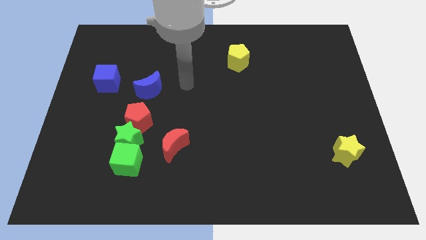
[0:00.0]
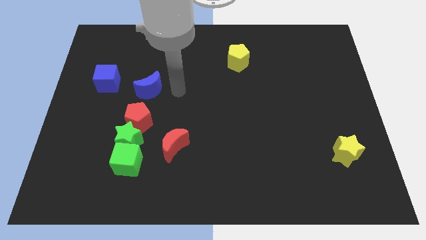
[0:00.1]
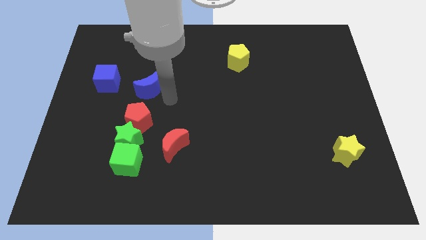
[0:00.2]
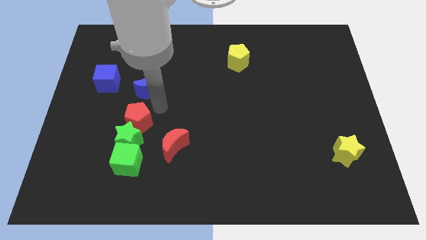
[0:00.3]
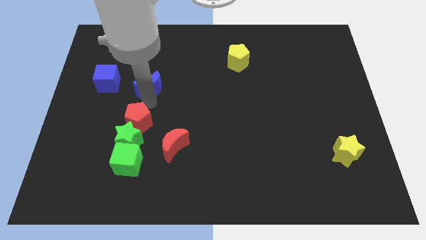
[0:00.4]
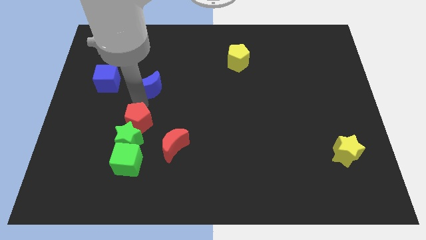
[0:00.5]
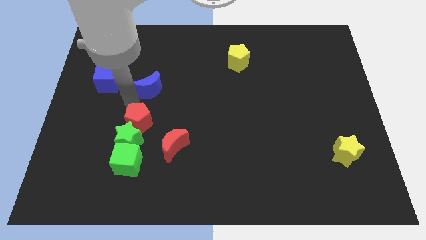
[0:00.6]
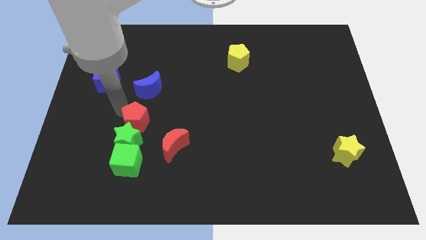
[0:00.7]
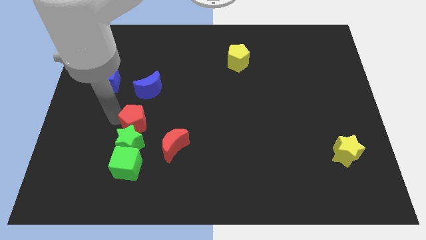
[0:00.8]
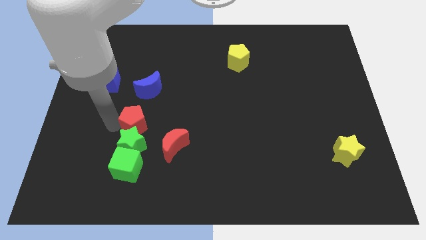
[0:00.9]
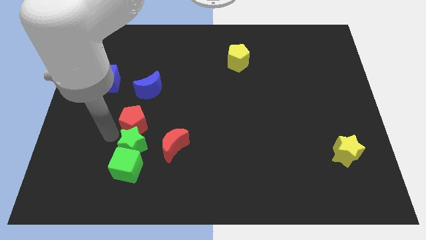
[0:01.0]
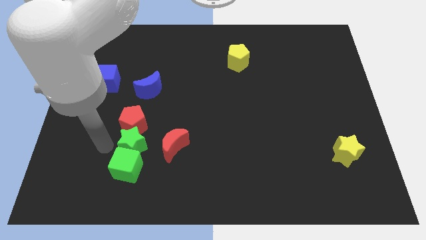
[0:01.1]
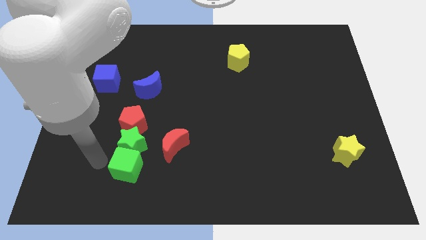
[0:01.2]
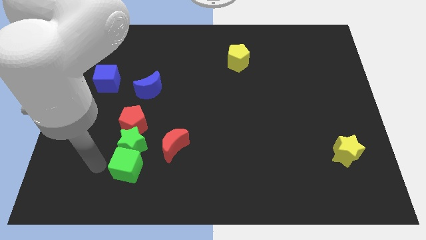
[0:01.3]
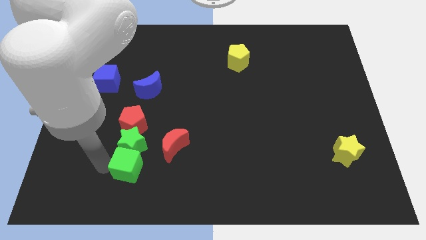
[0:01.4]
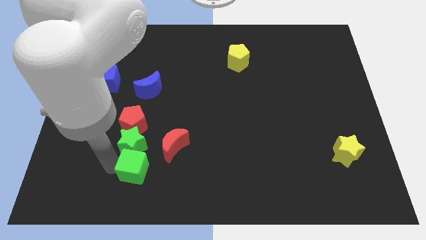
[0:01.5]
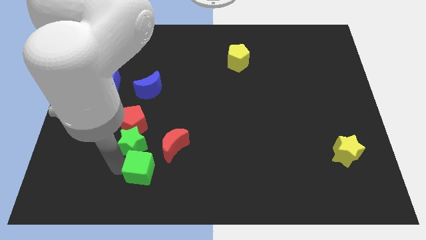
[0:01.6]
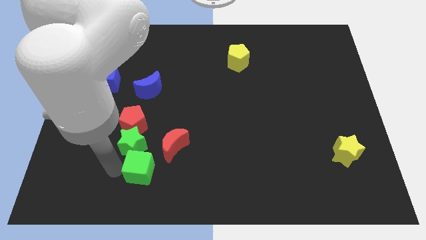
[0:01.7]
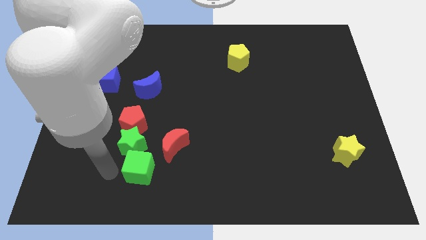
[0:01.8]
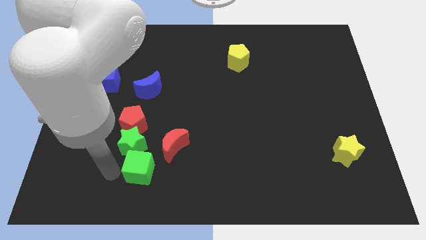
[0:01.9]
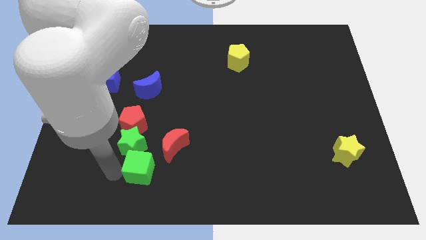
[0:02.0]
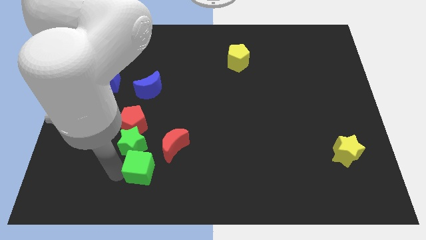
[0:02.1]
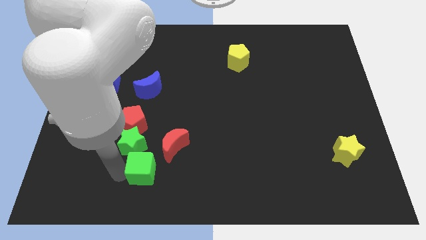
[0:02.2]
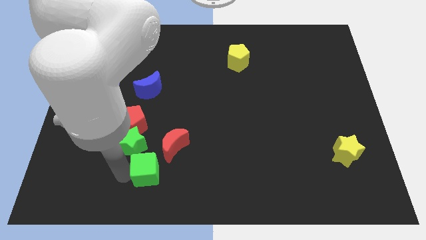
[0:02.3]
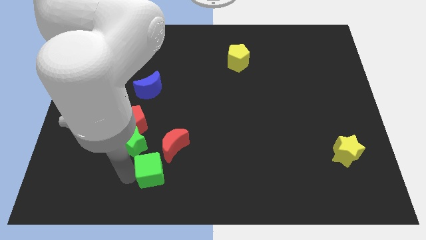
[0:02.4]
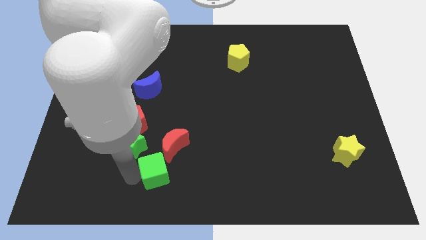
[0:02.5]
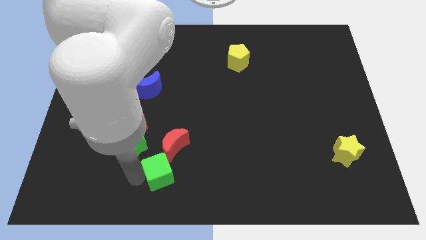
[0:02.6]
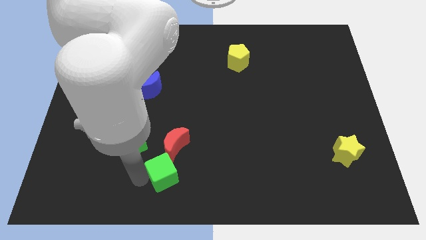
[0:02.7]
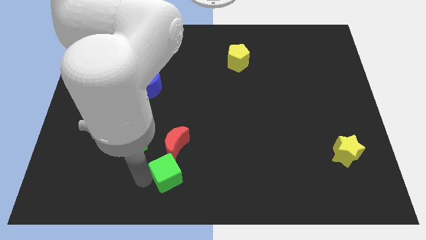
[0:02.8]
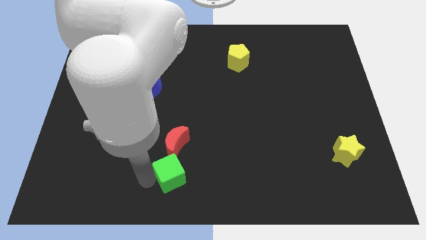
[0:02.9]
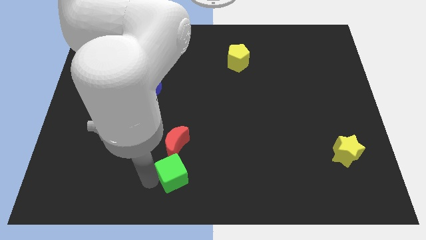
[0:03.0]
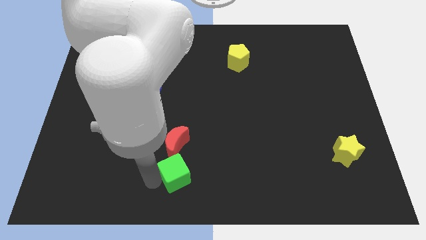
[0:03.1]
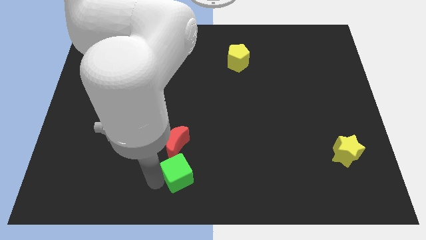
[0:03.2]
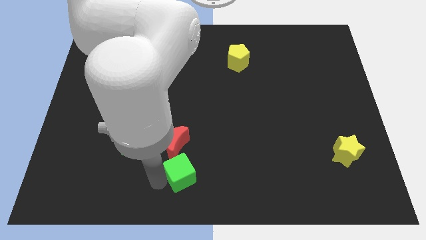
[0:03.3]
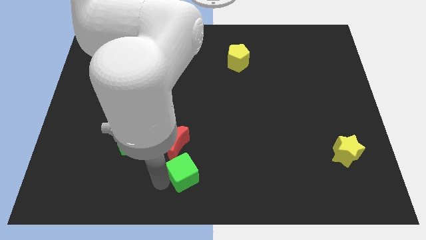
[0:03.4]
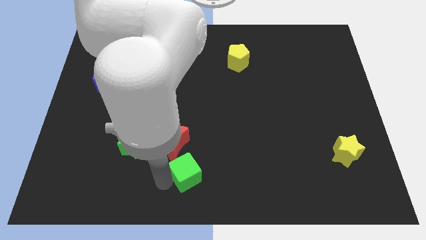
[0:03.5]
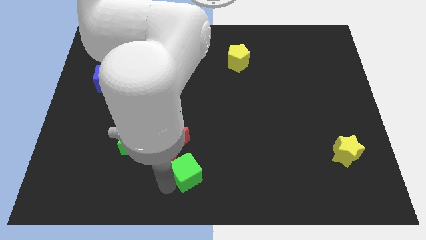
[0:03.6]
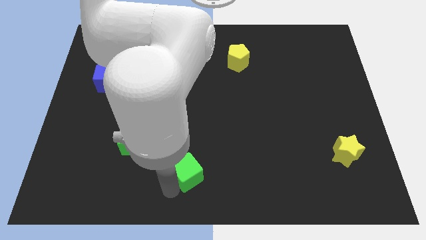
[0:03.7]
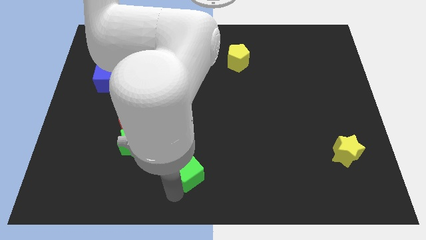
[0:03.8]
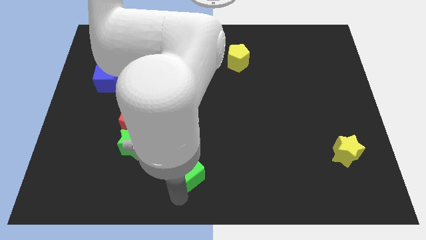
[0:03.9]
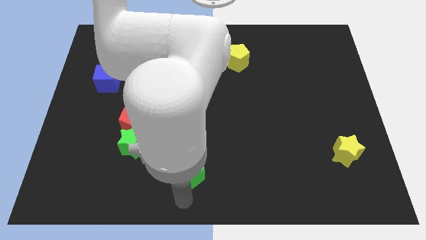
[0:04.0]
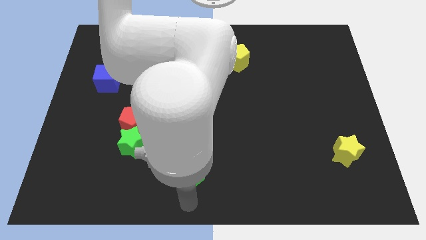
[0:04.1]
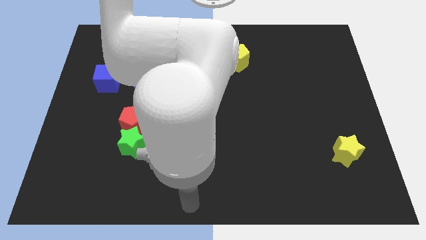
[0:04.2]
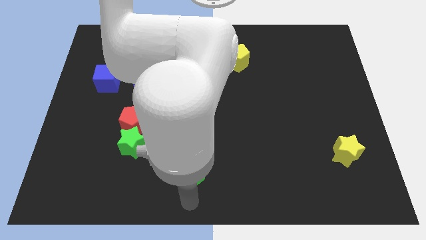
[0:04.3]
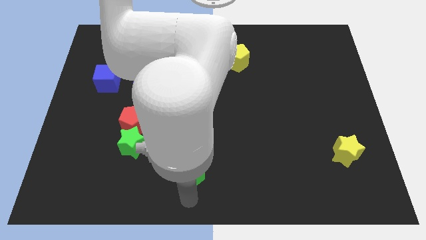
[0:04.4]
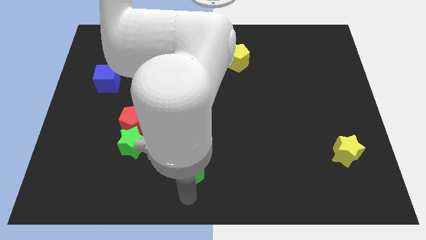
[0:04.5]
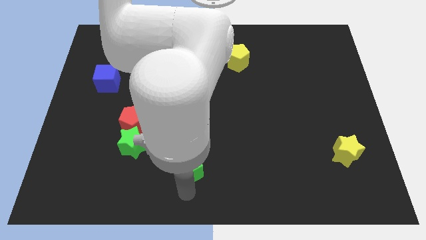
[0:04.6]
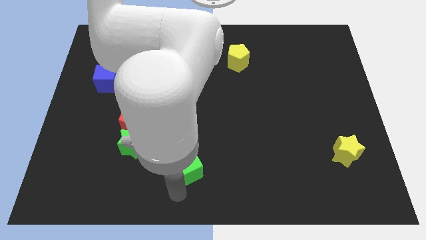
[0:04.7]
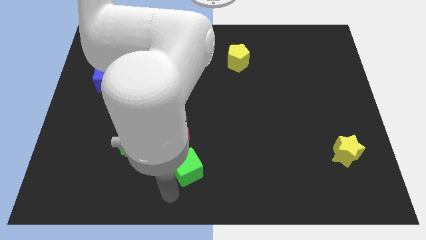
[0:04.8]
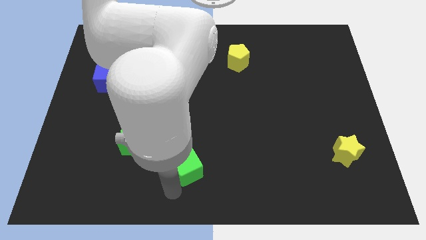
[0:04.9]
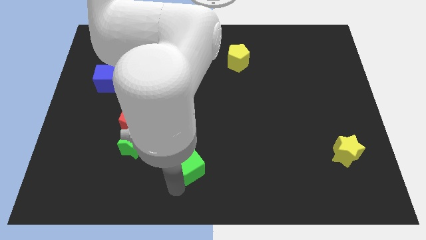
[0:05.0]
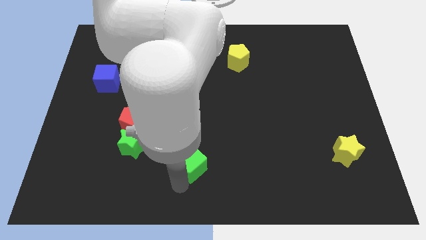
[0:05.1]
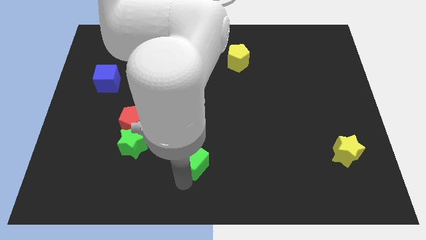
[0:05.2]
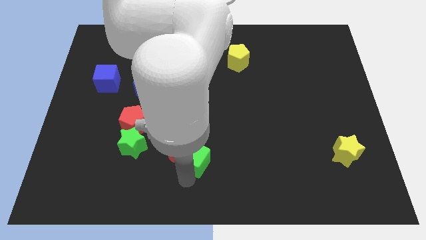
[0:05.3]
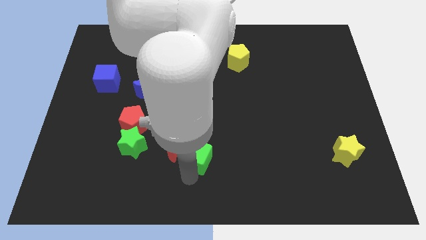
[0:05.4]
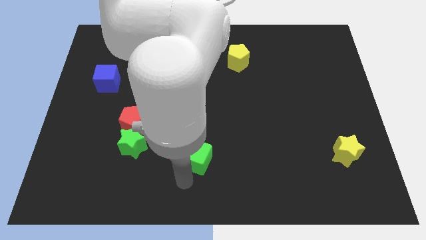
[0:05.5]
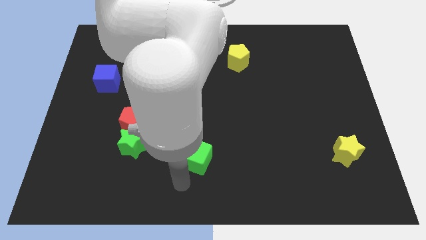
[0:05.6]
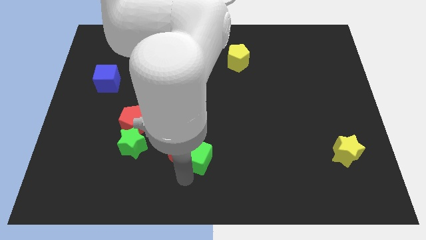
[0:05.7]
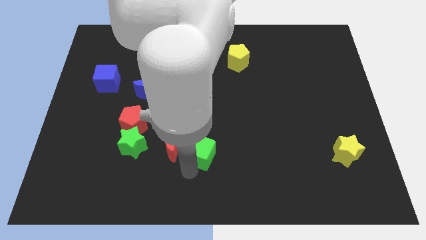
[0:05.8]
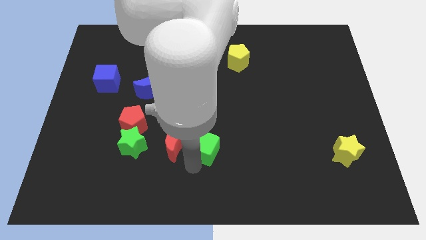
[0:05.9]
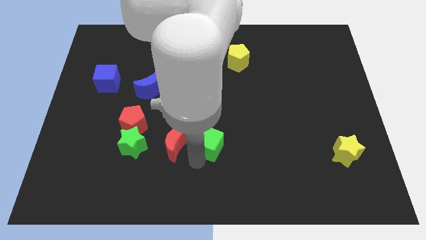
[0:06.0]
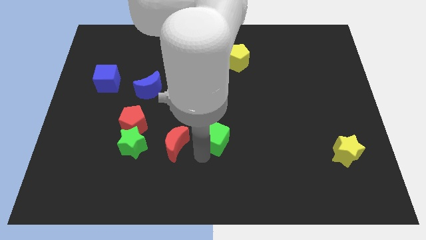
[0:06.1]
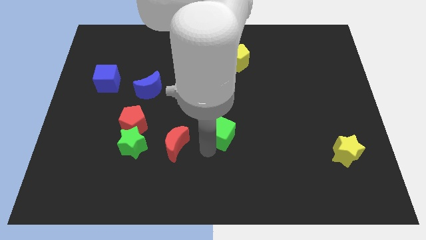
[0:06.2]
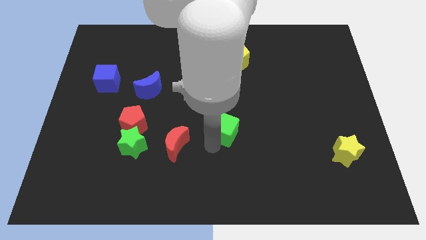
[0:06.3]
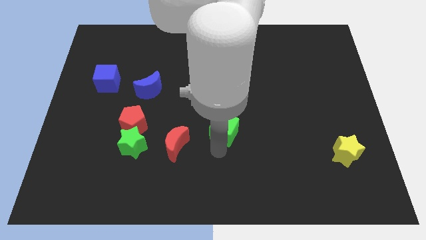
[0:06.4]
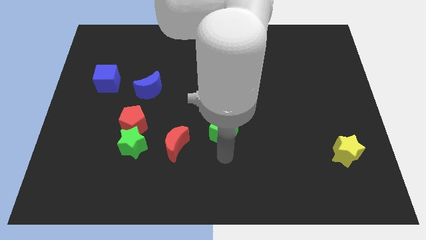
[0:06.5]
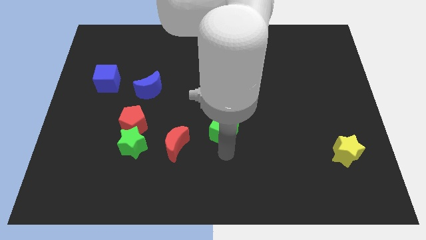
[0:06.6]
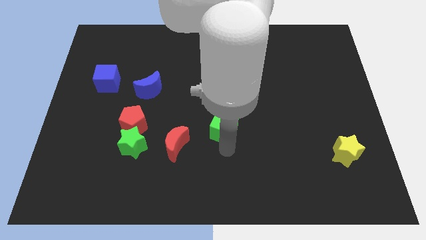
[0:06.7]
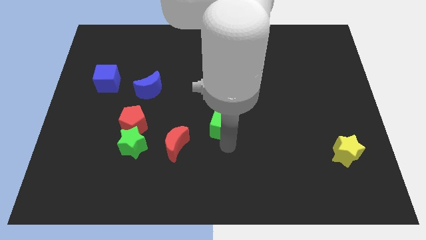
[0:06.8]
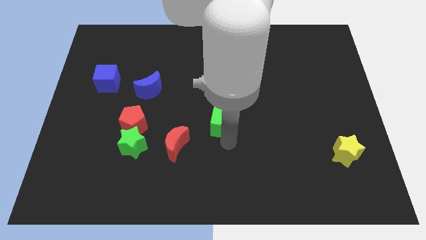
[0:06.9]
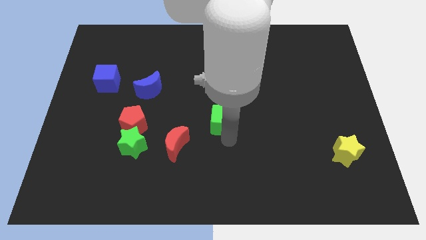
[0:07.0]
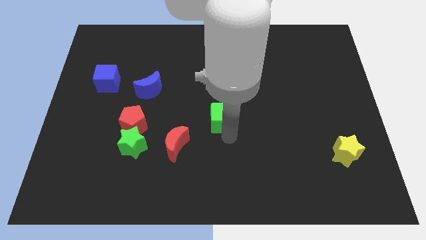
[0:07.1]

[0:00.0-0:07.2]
push the green cube up and then to the right

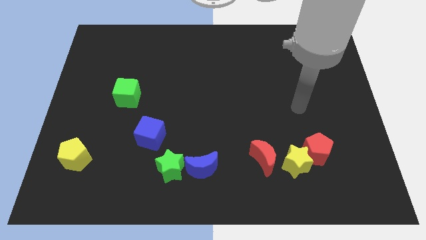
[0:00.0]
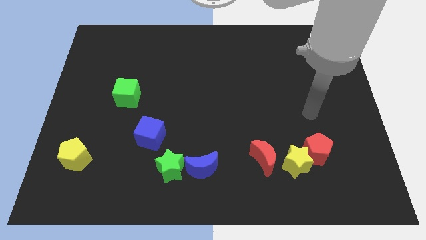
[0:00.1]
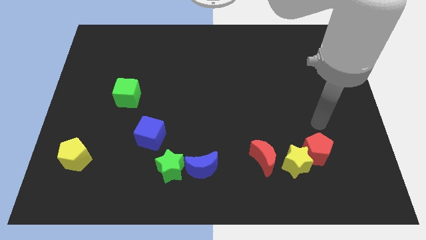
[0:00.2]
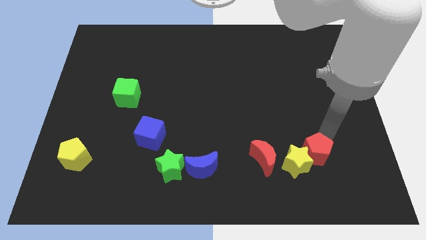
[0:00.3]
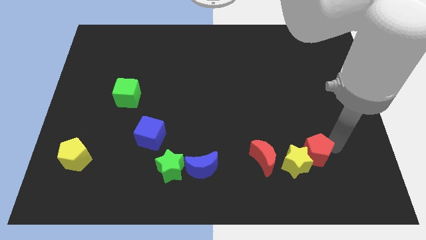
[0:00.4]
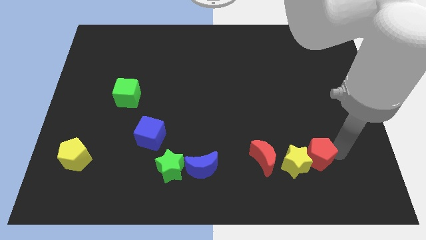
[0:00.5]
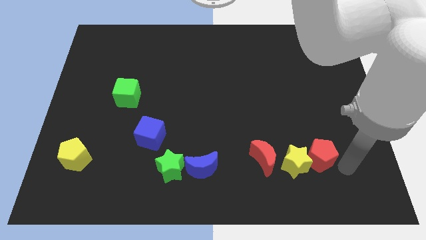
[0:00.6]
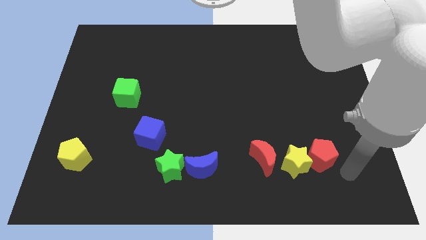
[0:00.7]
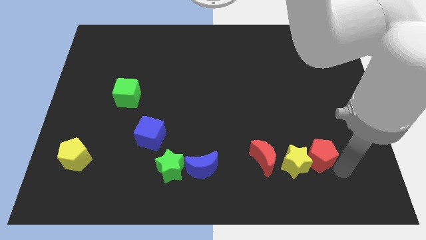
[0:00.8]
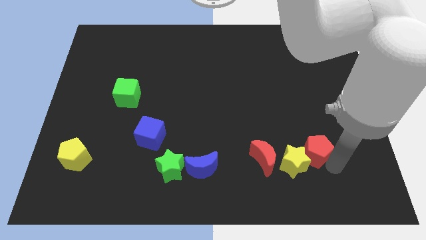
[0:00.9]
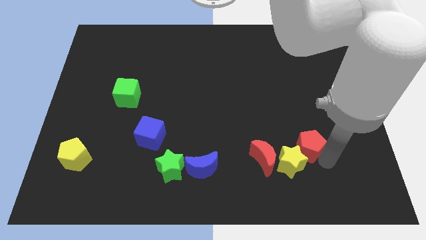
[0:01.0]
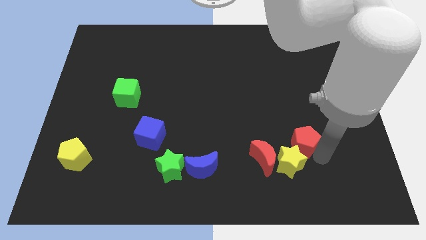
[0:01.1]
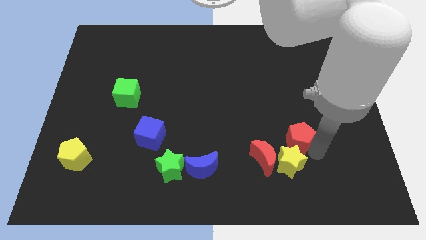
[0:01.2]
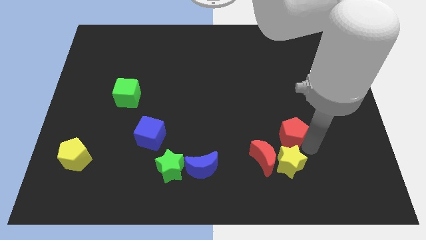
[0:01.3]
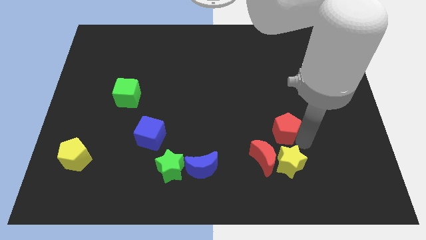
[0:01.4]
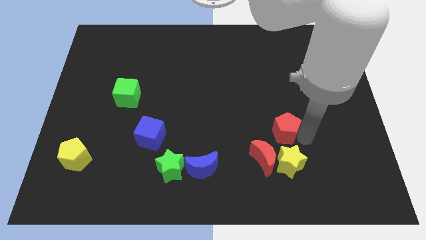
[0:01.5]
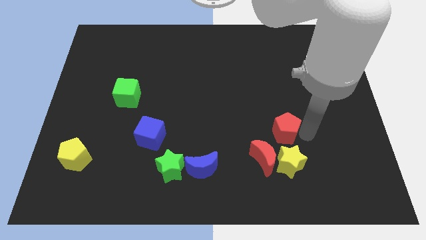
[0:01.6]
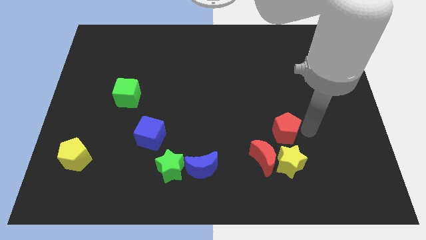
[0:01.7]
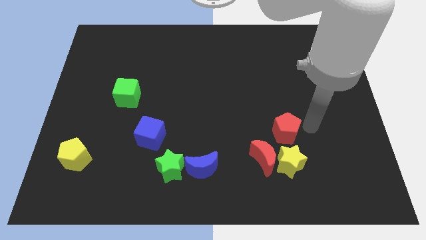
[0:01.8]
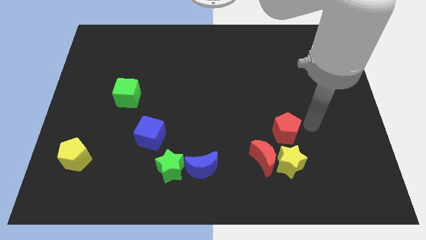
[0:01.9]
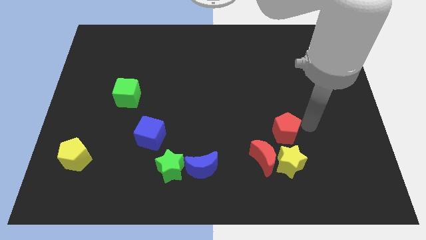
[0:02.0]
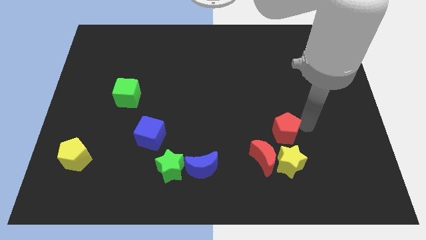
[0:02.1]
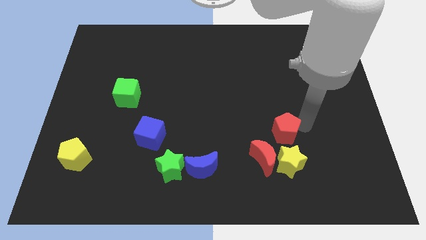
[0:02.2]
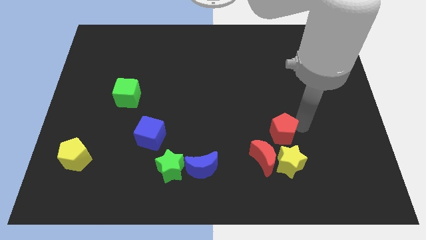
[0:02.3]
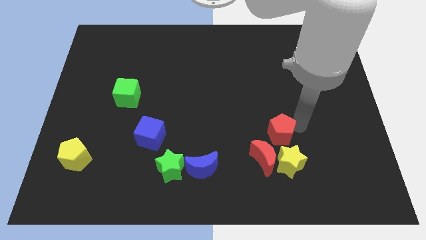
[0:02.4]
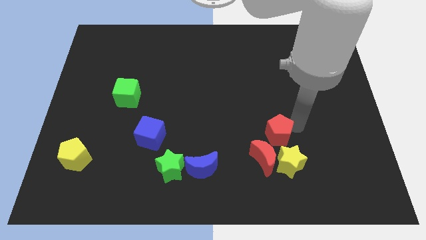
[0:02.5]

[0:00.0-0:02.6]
push the red pentagon a little left
